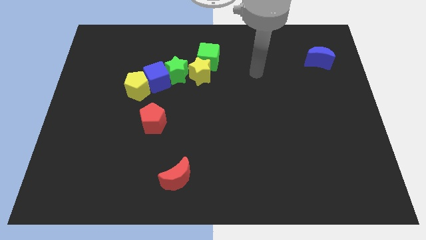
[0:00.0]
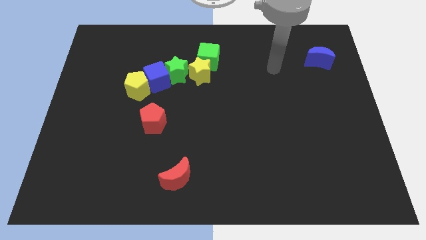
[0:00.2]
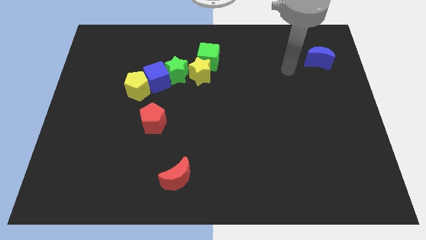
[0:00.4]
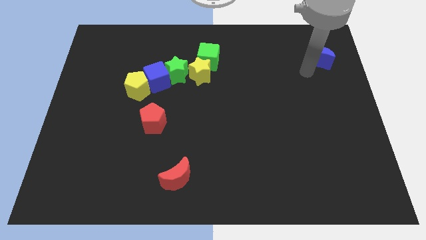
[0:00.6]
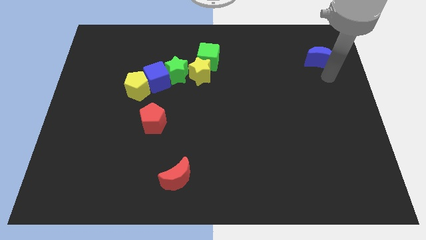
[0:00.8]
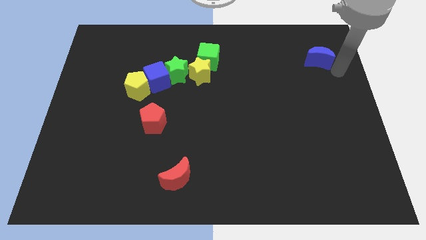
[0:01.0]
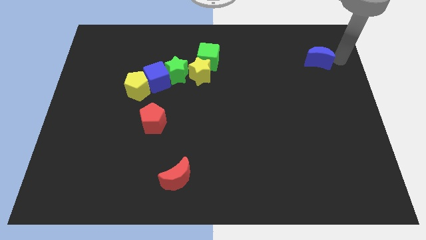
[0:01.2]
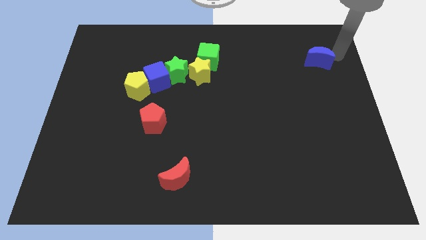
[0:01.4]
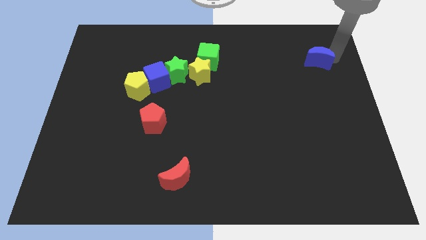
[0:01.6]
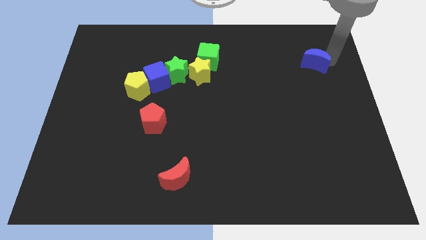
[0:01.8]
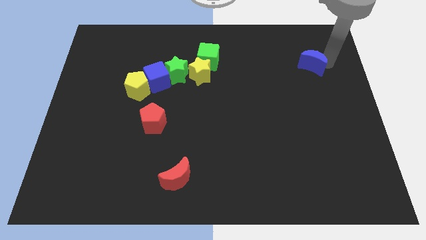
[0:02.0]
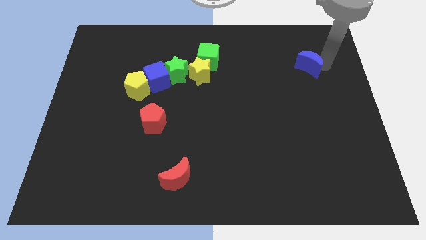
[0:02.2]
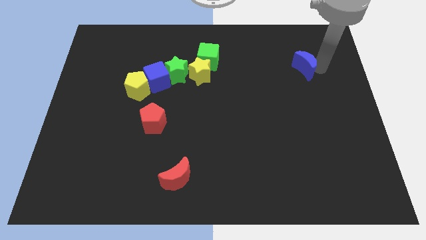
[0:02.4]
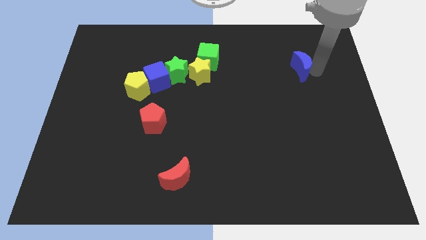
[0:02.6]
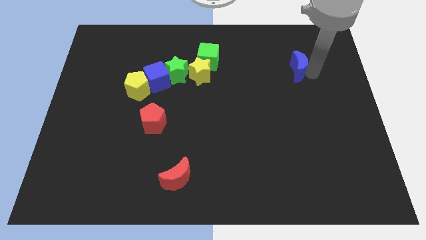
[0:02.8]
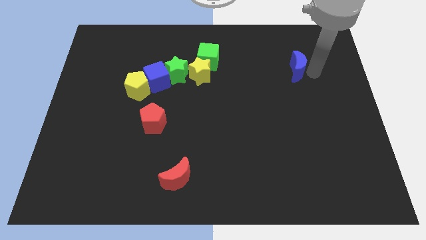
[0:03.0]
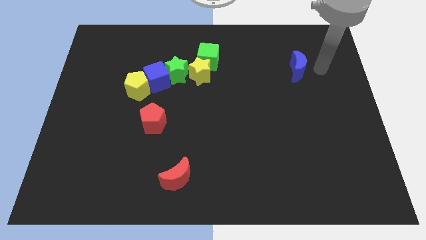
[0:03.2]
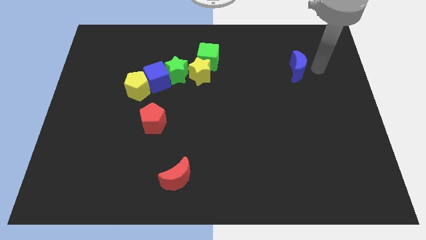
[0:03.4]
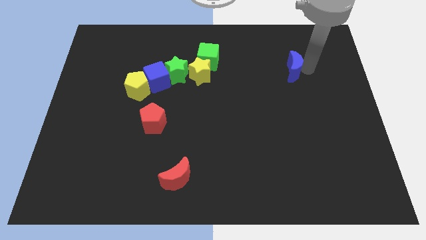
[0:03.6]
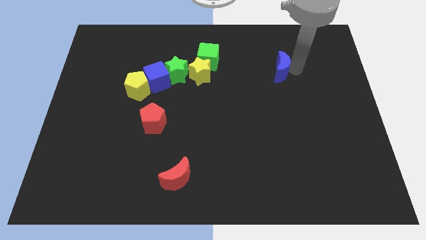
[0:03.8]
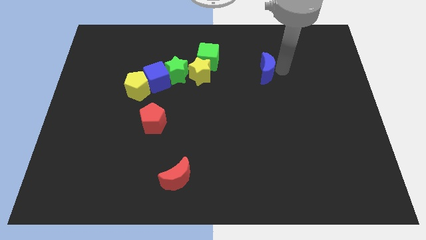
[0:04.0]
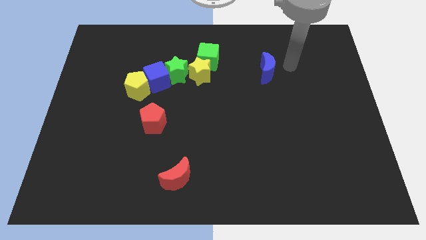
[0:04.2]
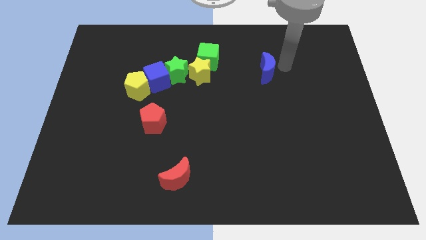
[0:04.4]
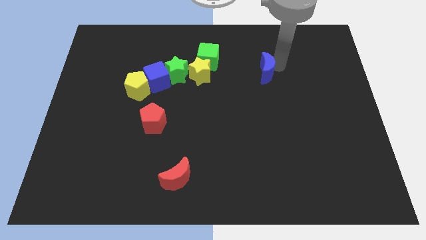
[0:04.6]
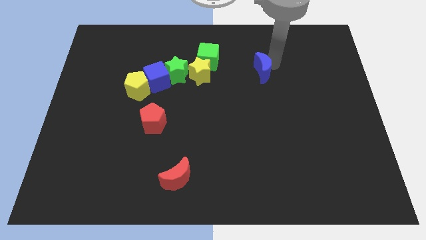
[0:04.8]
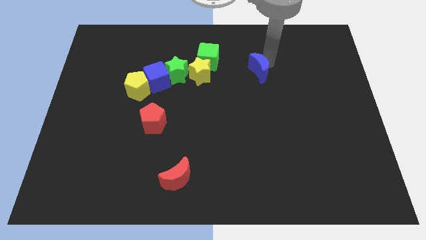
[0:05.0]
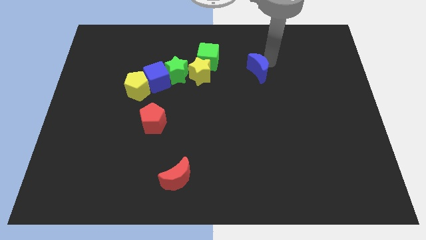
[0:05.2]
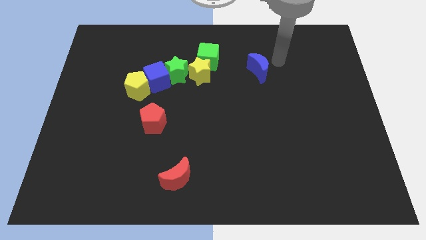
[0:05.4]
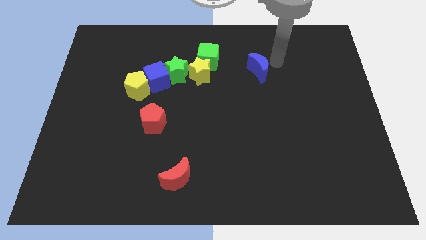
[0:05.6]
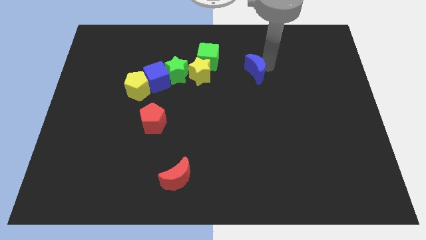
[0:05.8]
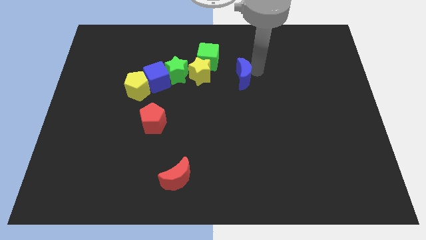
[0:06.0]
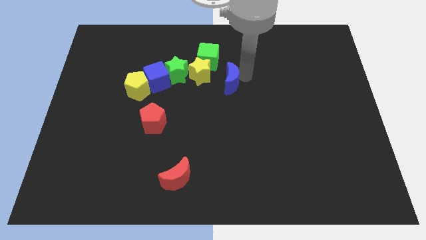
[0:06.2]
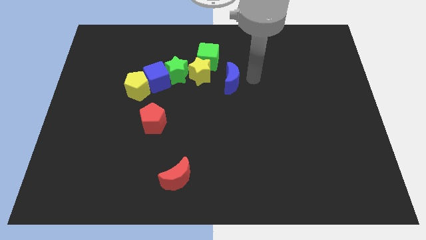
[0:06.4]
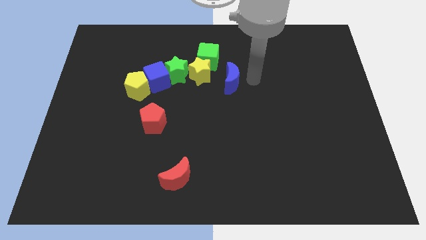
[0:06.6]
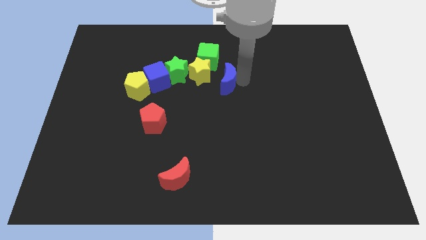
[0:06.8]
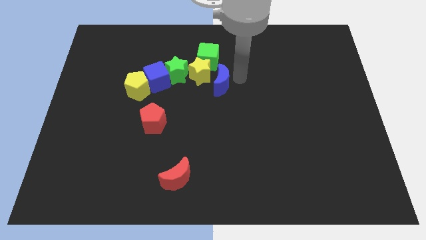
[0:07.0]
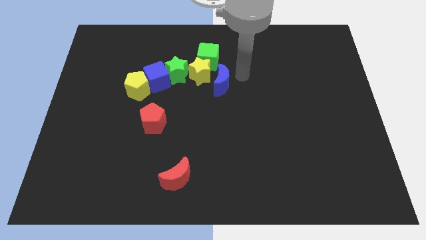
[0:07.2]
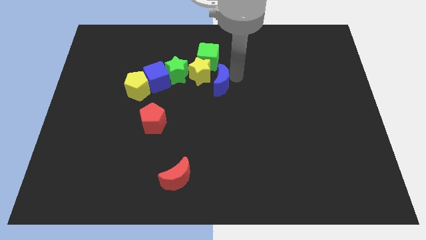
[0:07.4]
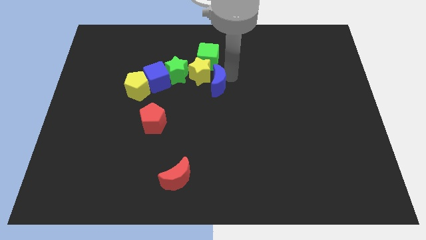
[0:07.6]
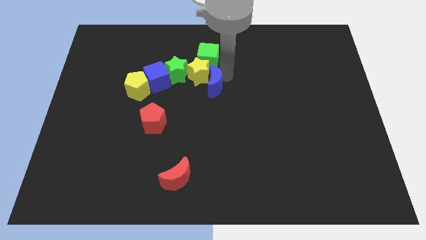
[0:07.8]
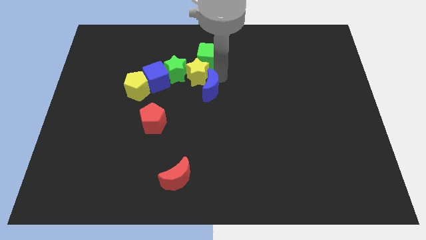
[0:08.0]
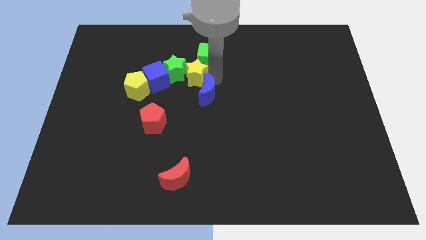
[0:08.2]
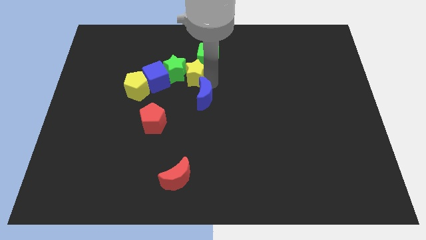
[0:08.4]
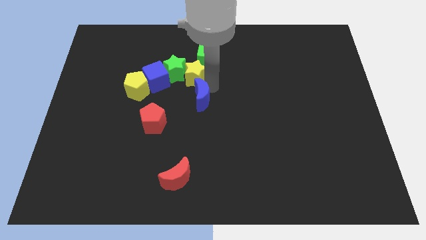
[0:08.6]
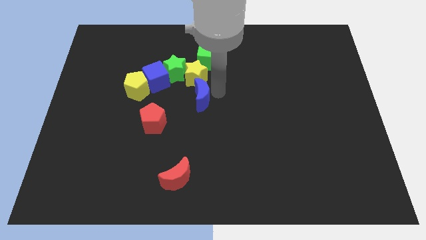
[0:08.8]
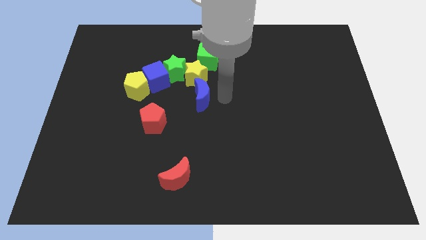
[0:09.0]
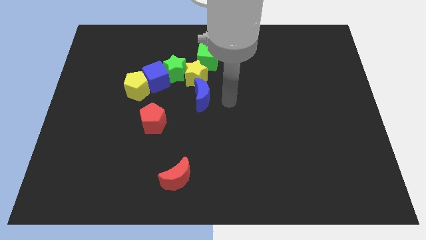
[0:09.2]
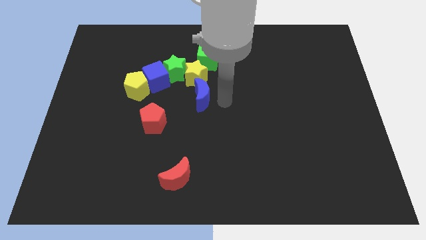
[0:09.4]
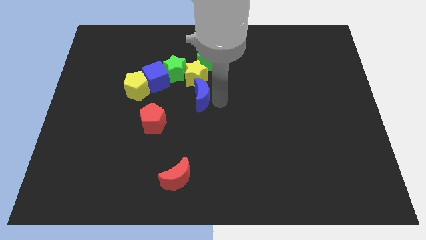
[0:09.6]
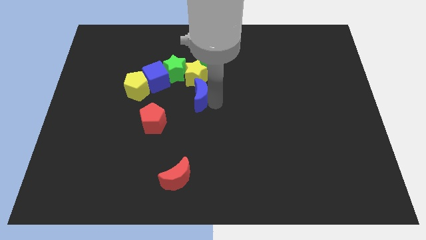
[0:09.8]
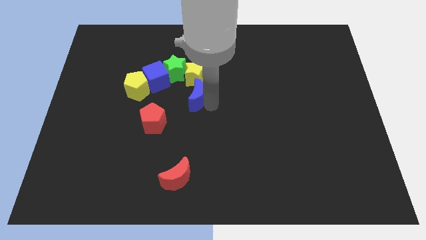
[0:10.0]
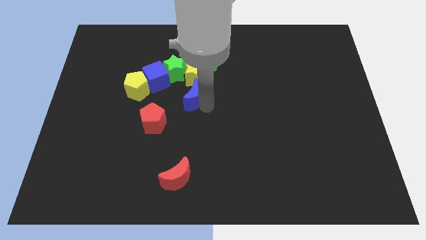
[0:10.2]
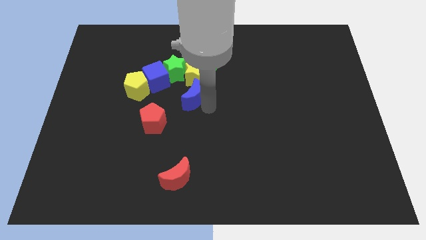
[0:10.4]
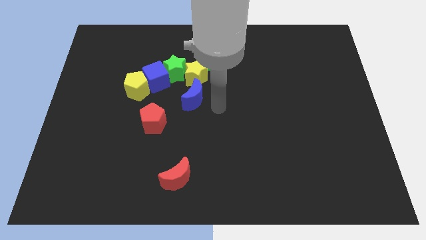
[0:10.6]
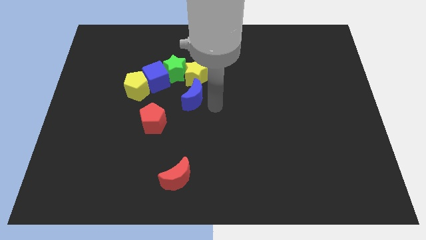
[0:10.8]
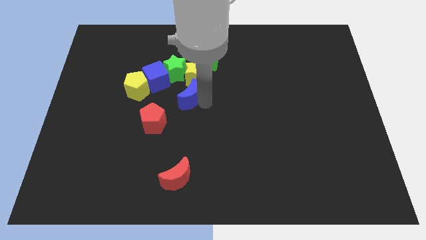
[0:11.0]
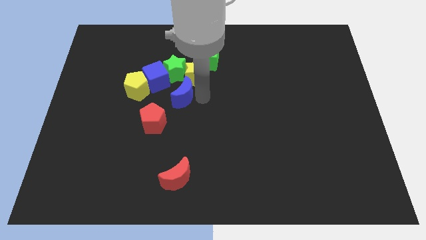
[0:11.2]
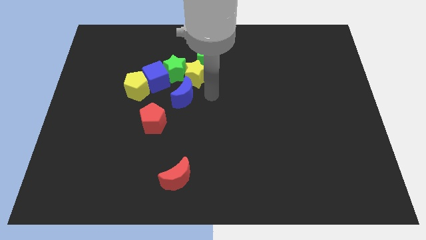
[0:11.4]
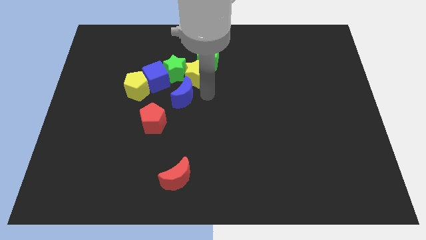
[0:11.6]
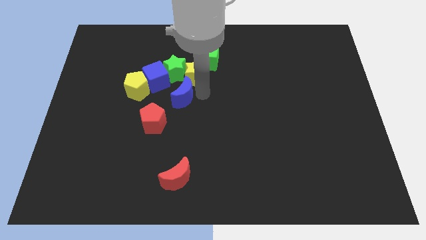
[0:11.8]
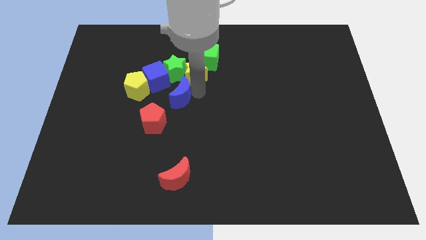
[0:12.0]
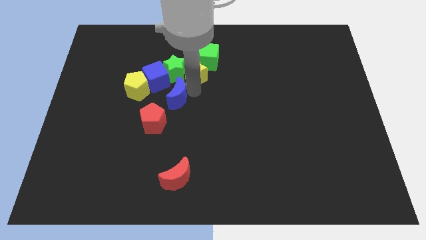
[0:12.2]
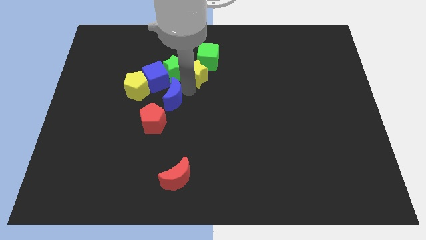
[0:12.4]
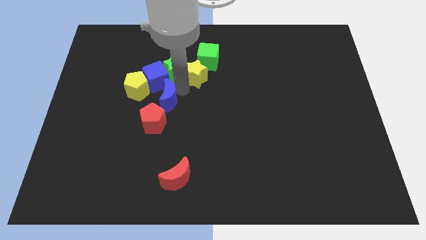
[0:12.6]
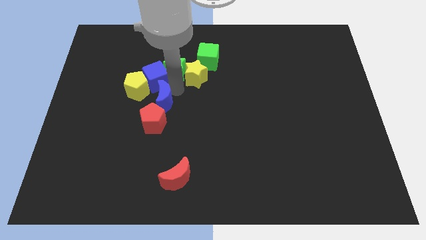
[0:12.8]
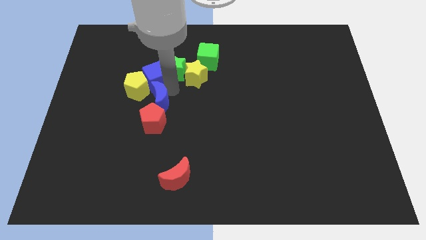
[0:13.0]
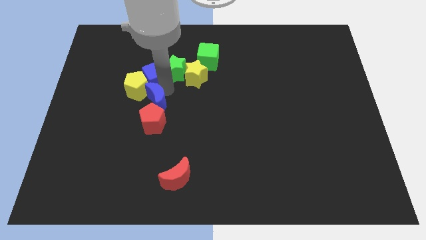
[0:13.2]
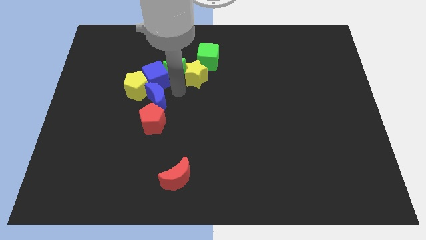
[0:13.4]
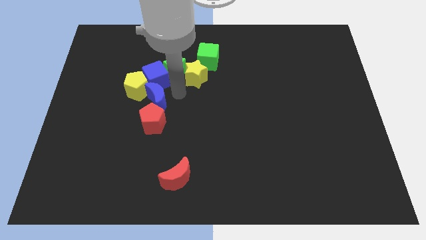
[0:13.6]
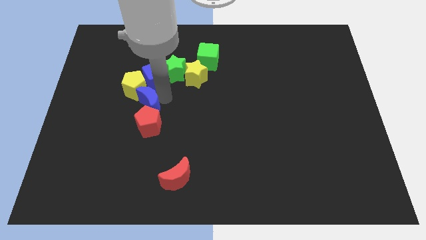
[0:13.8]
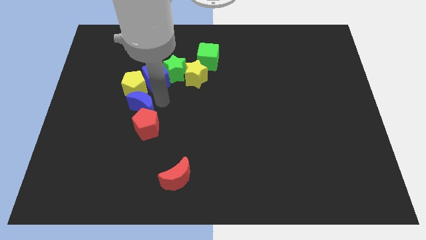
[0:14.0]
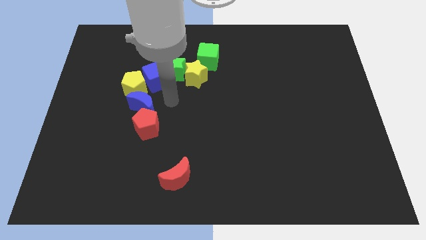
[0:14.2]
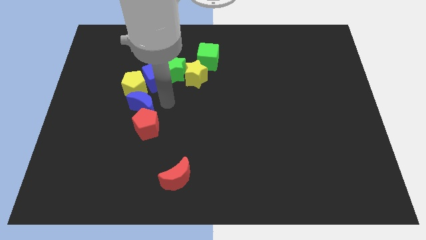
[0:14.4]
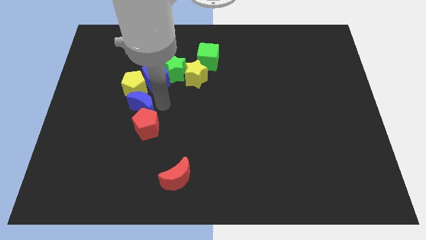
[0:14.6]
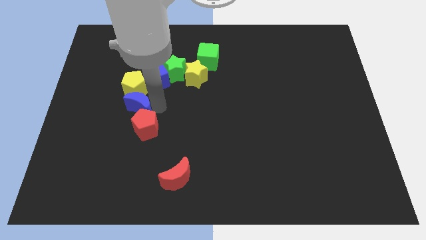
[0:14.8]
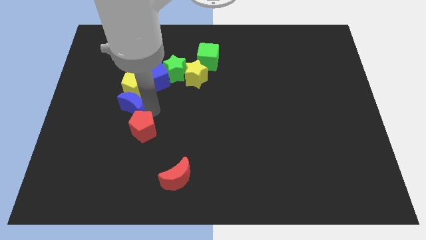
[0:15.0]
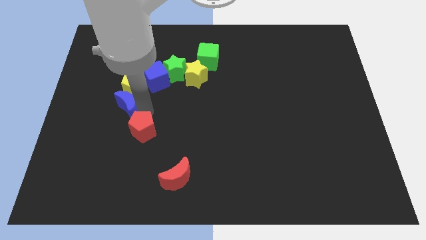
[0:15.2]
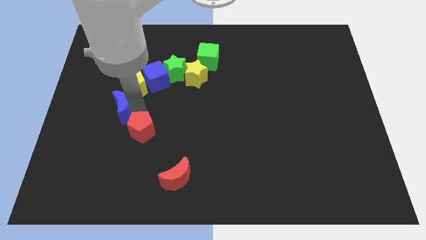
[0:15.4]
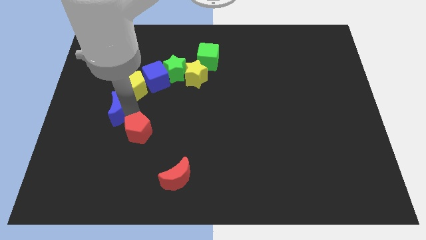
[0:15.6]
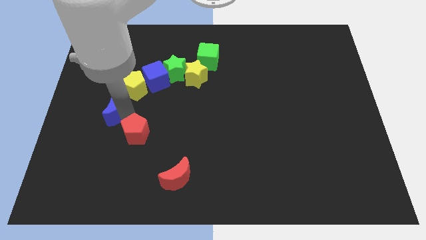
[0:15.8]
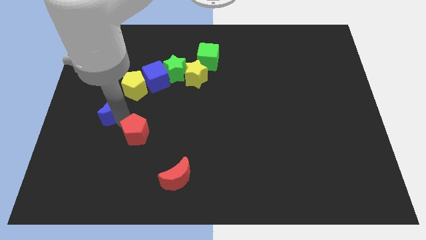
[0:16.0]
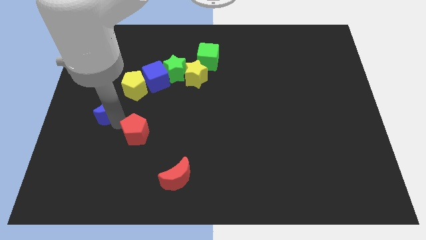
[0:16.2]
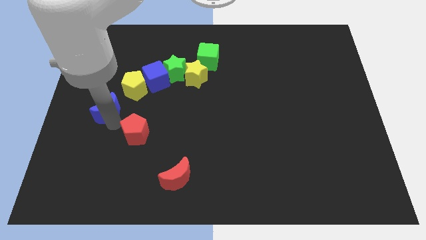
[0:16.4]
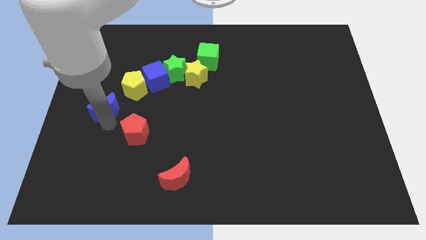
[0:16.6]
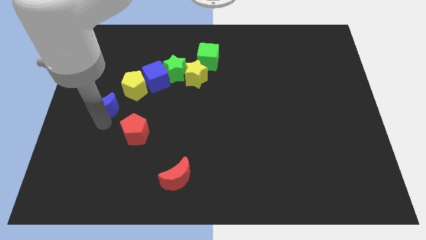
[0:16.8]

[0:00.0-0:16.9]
move the blue moon to the center left
